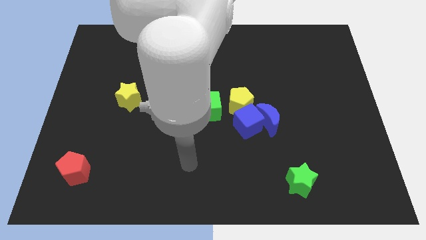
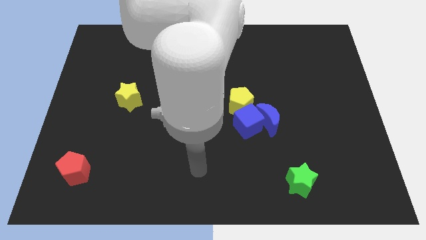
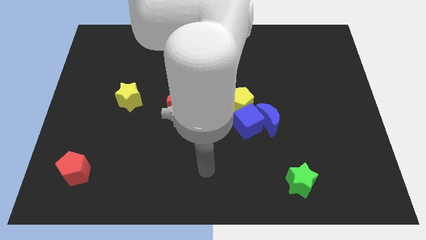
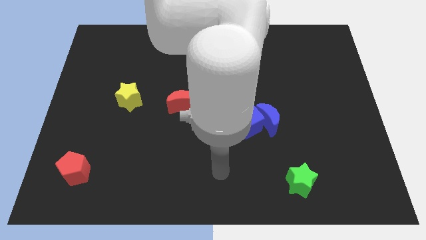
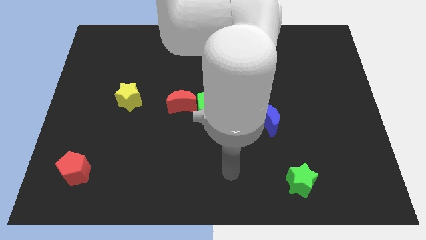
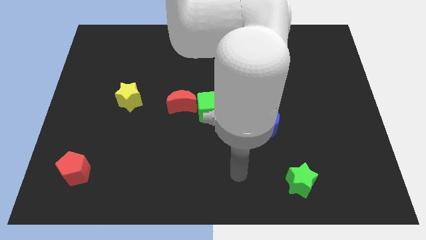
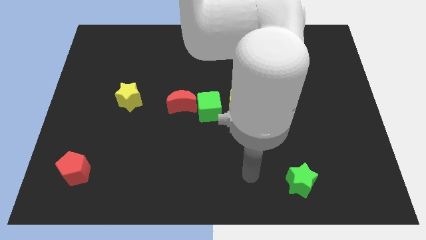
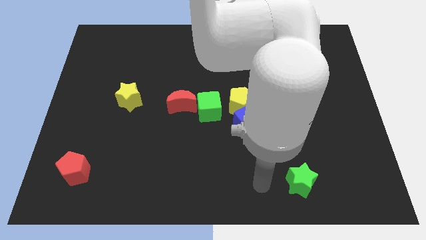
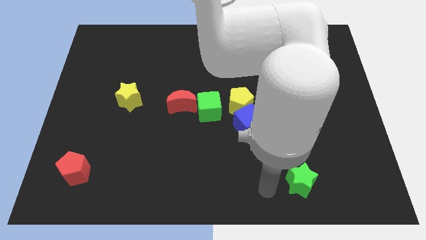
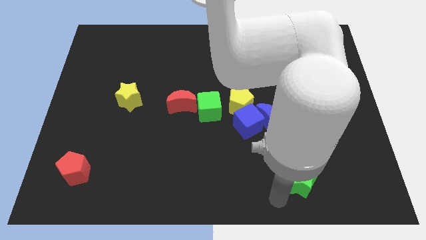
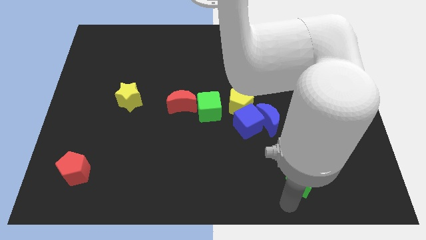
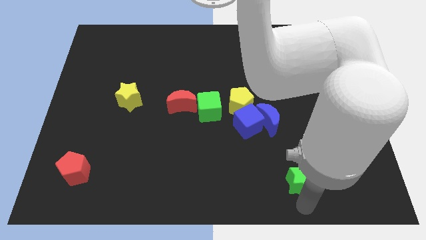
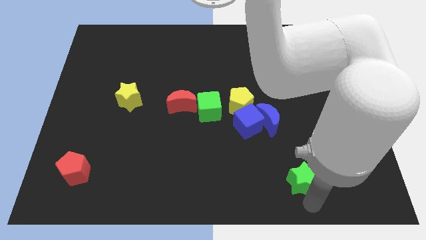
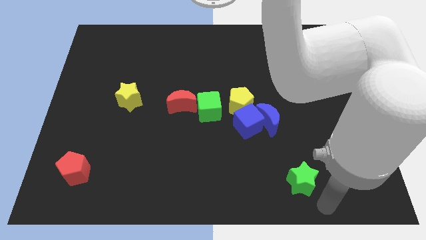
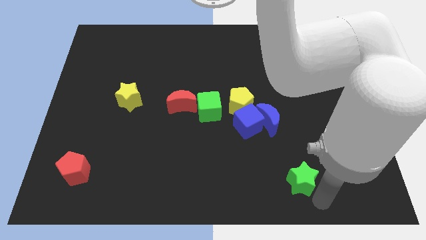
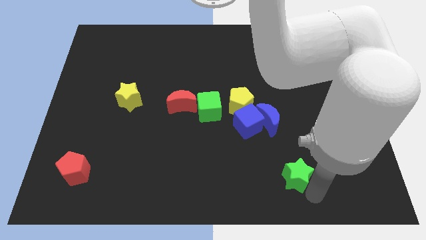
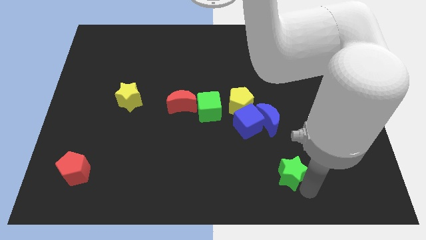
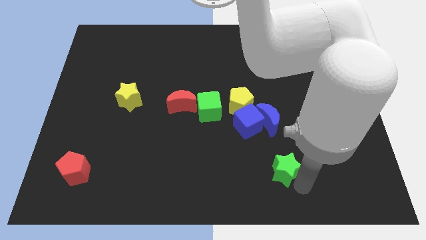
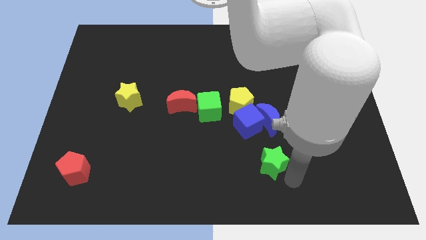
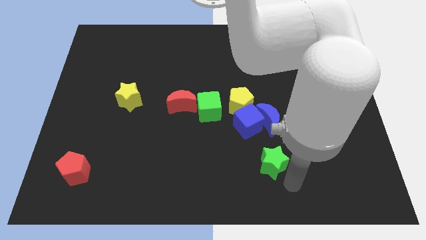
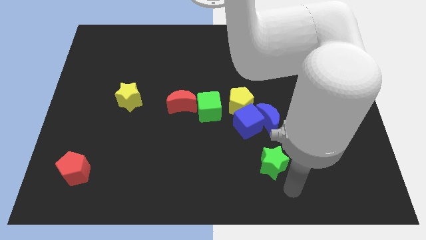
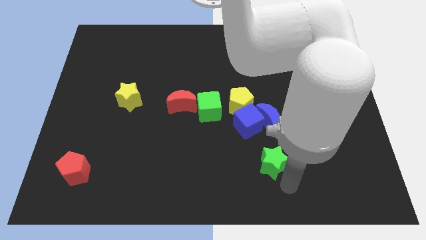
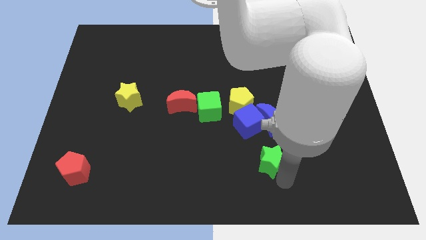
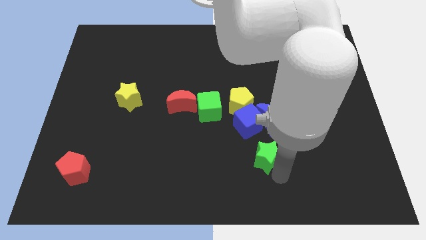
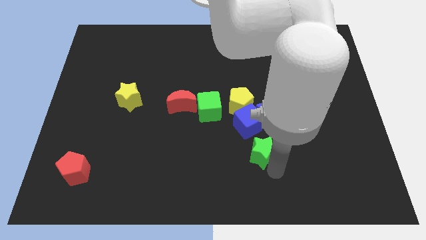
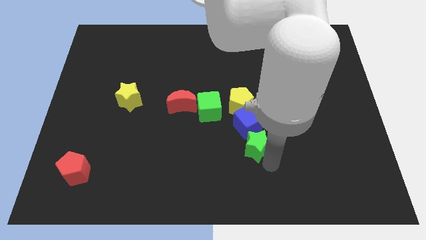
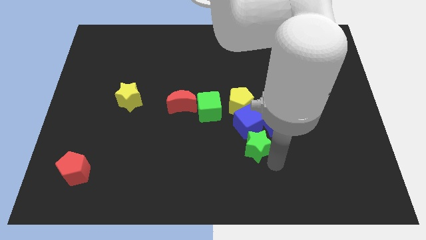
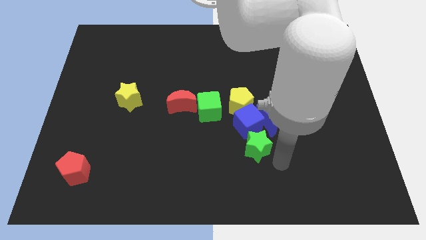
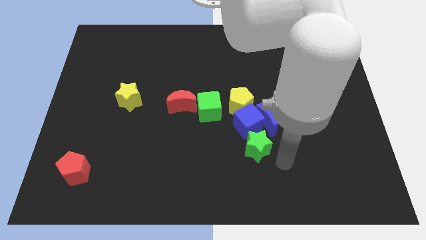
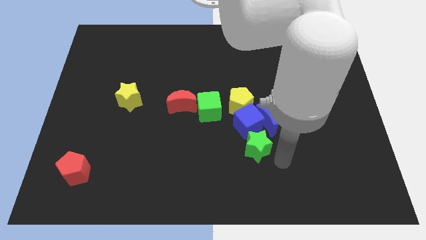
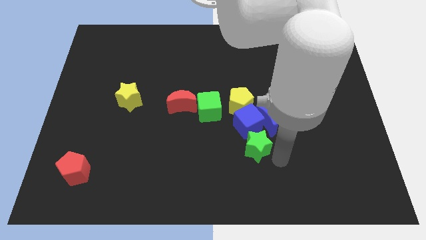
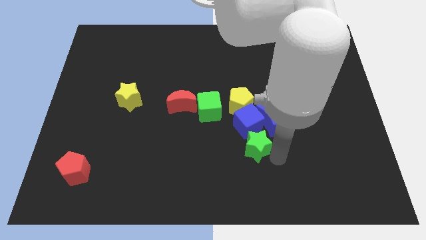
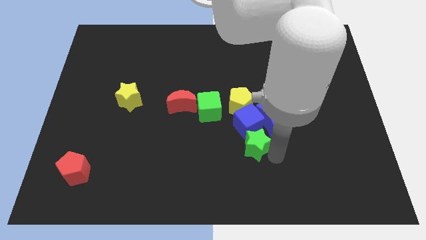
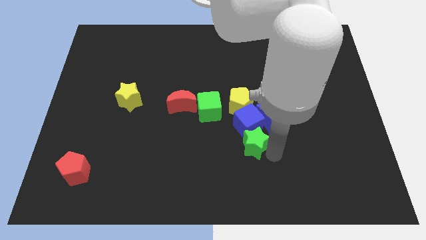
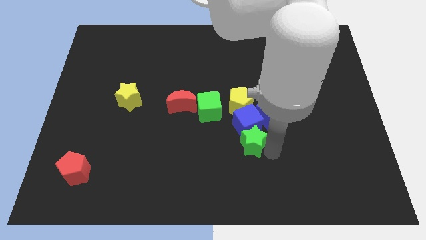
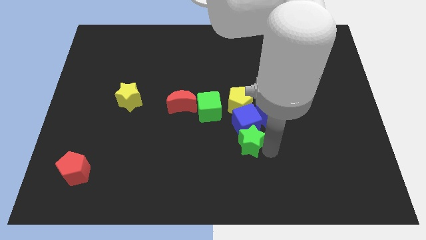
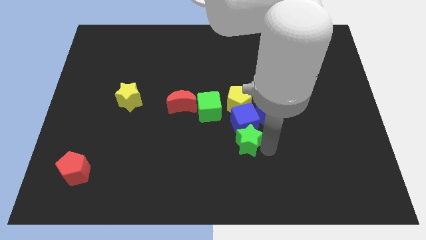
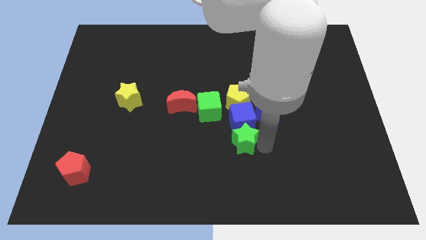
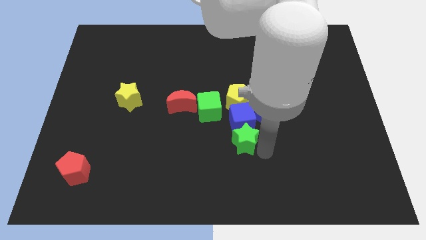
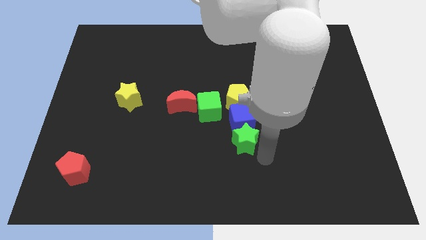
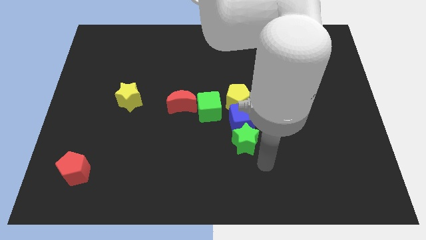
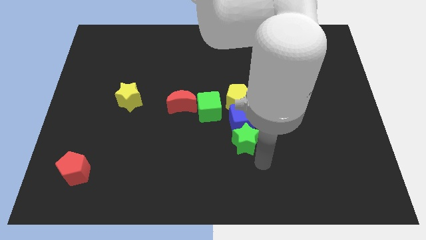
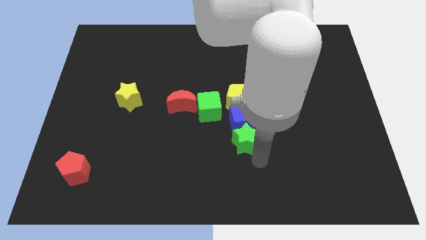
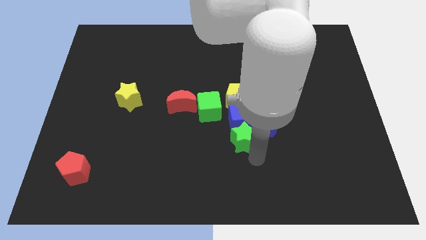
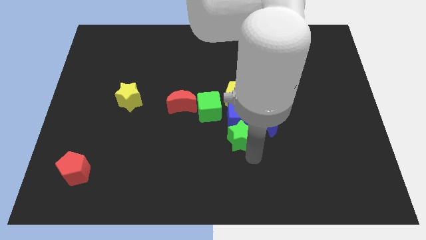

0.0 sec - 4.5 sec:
put the green star to the left of the blue moon

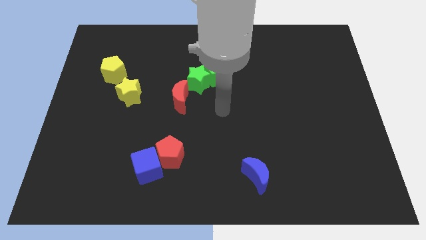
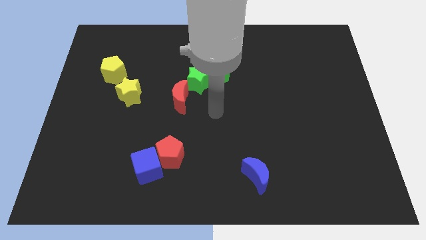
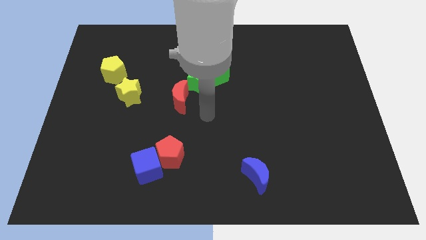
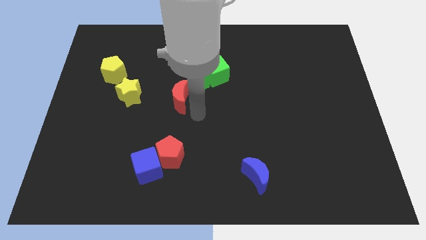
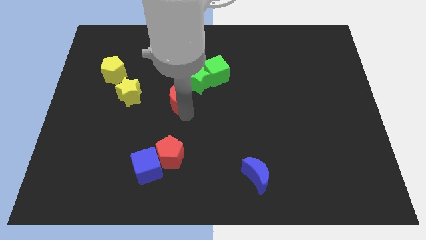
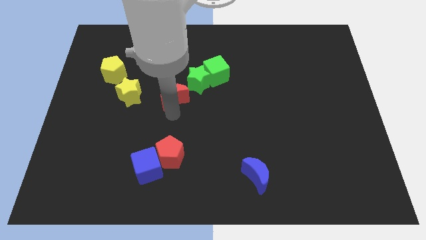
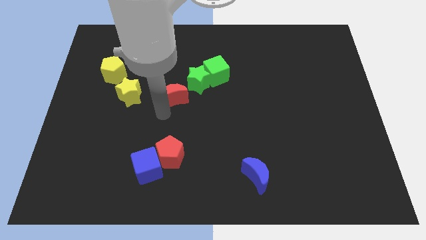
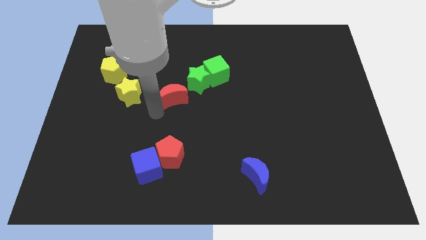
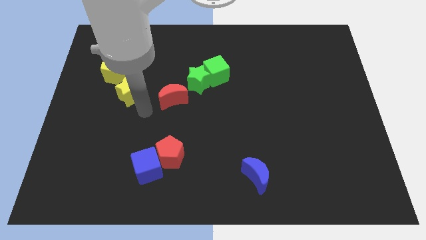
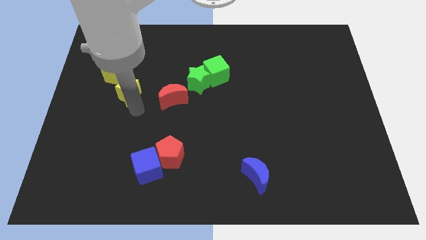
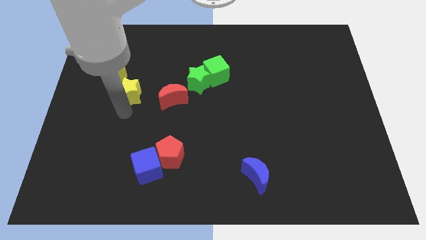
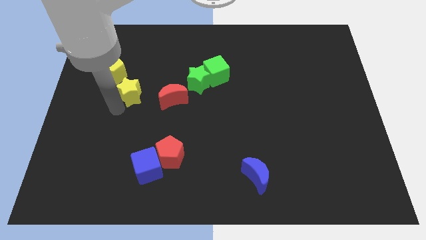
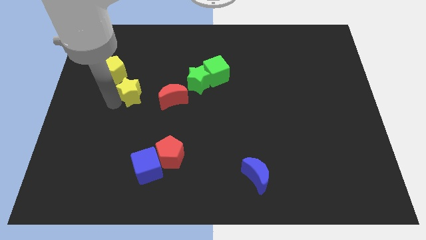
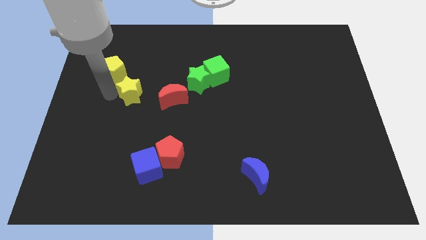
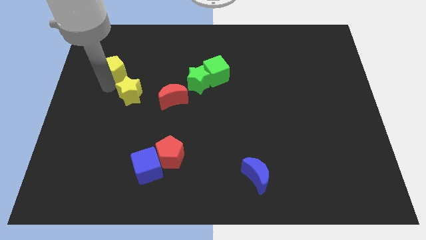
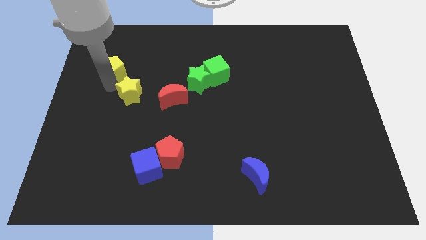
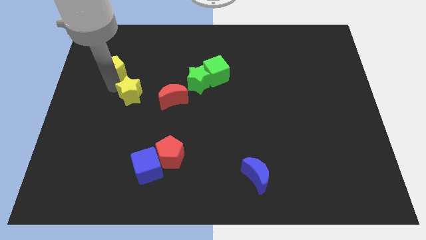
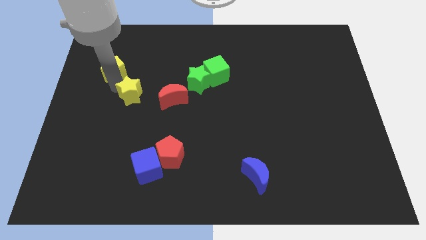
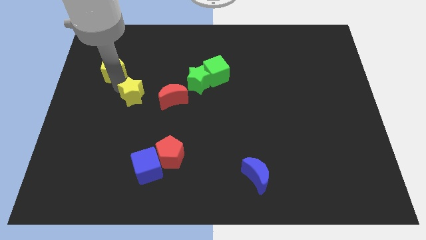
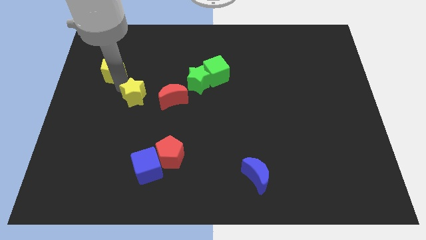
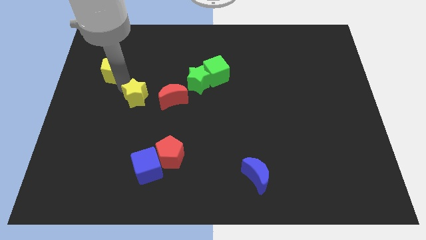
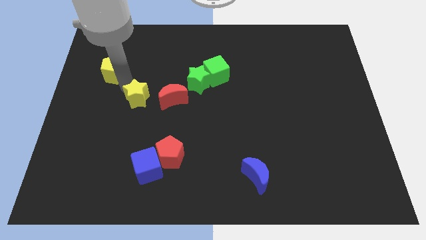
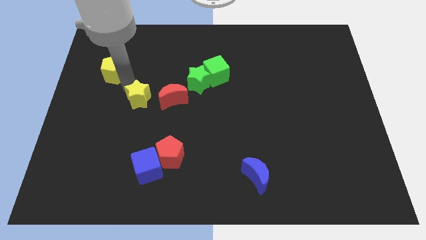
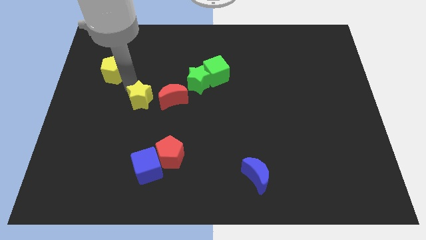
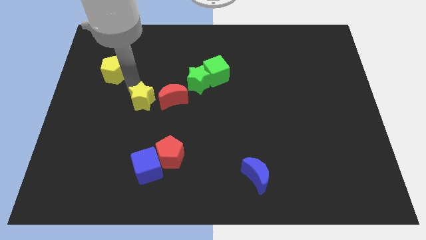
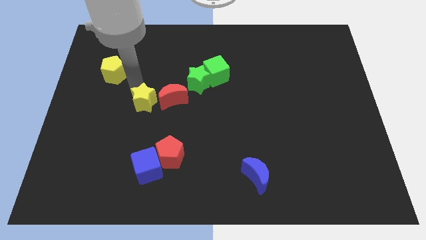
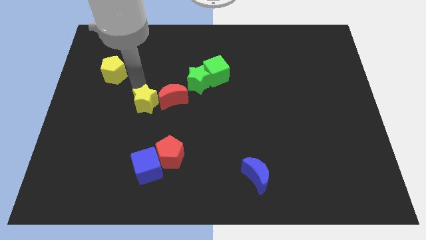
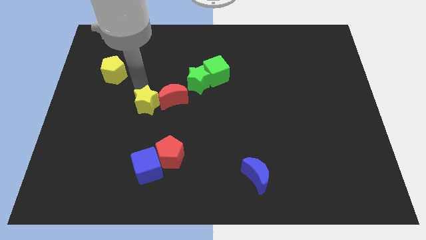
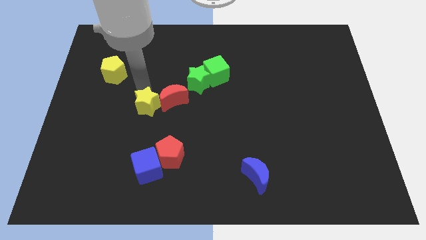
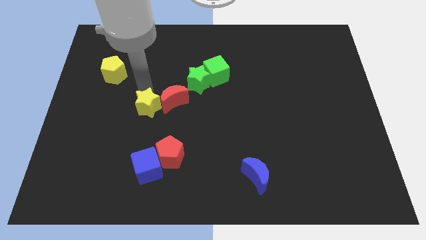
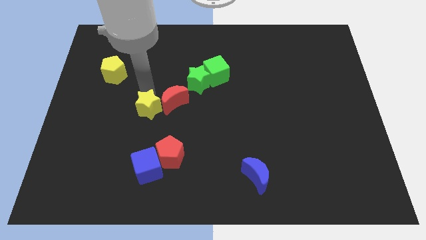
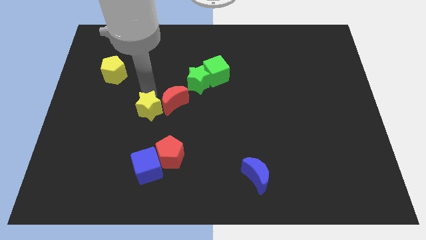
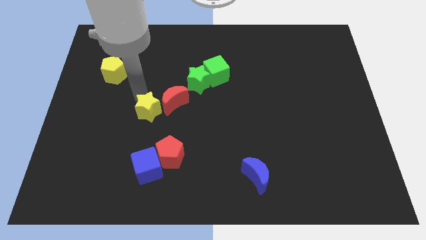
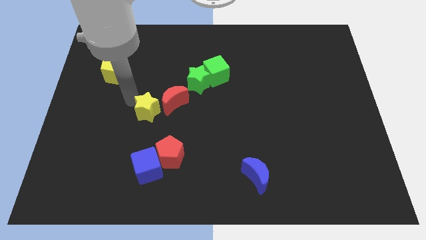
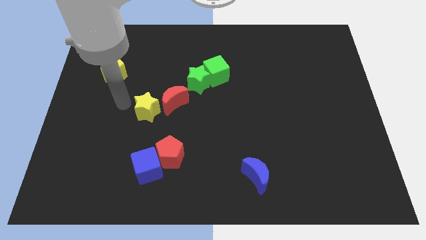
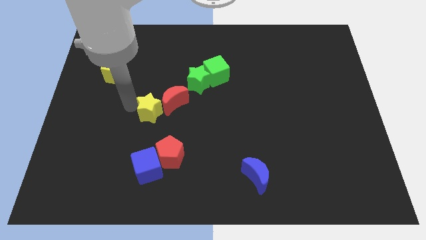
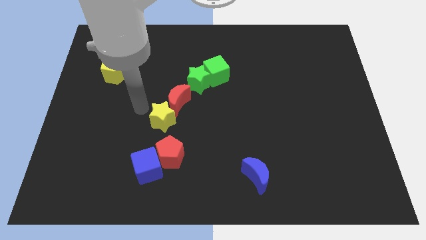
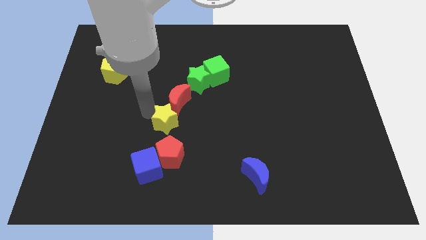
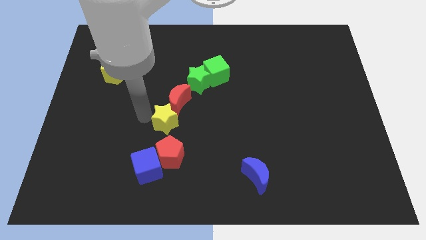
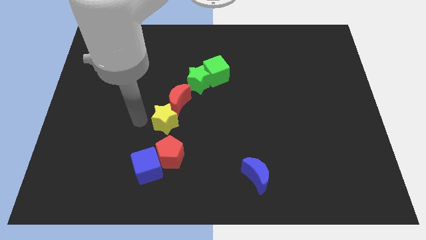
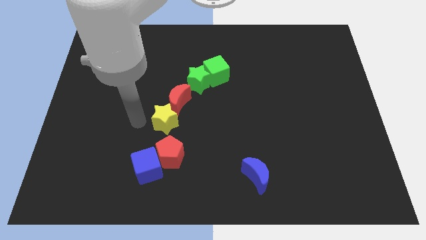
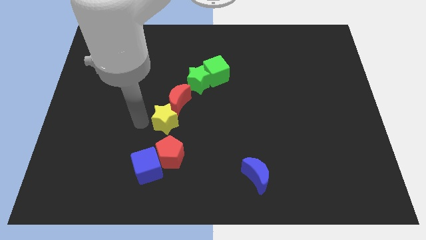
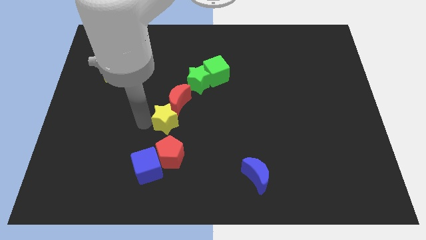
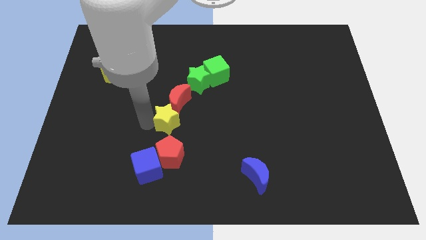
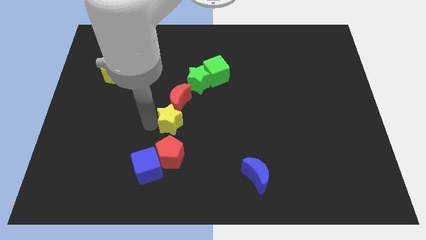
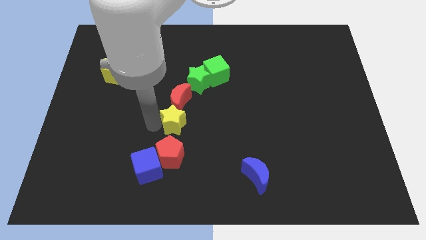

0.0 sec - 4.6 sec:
push the yellow star diagonally down and to the right of the red moon
